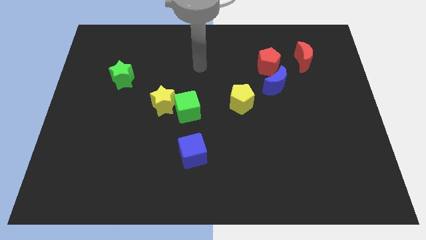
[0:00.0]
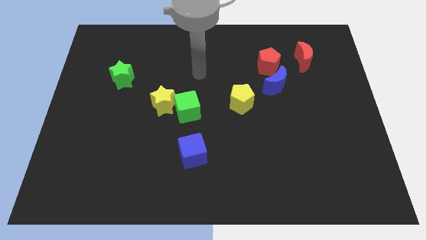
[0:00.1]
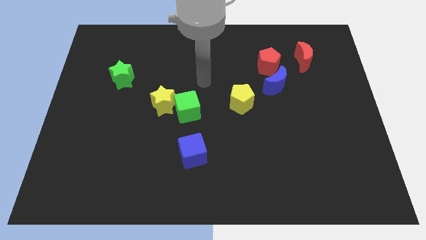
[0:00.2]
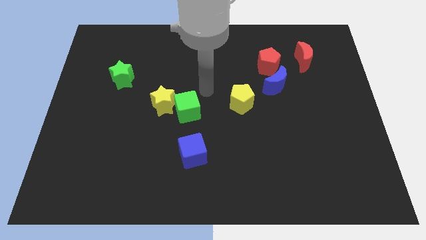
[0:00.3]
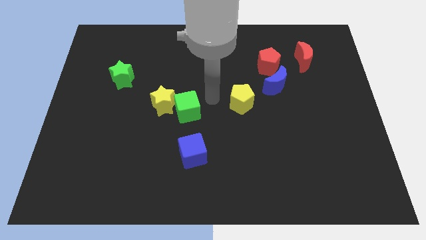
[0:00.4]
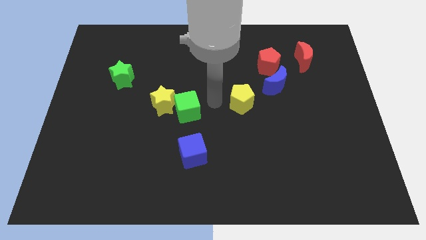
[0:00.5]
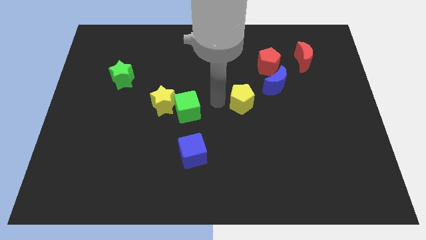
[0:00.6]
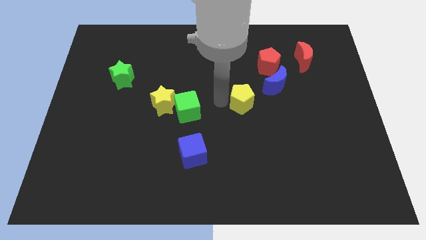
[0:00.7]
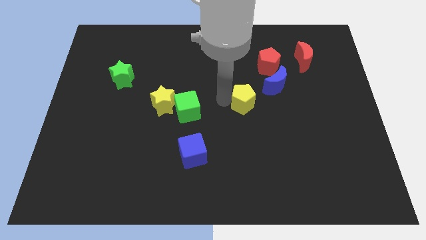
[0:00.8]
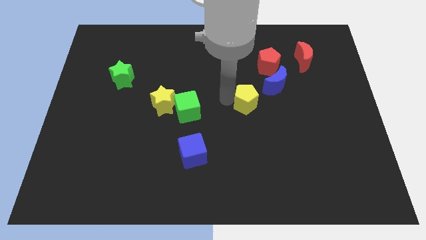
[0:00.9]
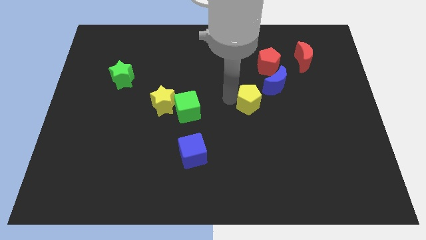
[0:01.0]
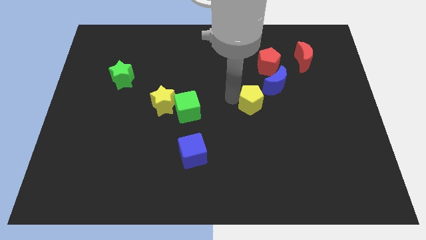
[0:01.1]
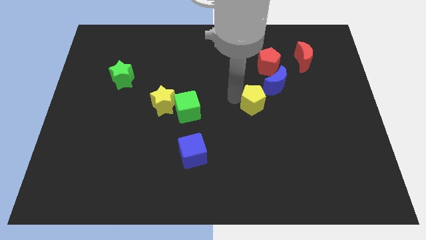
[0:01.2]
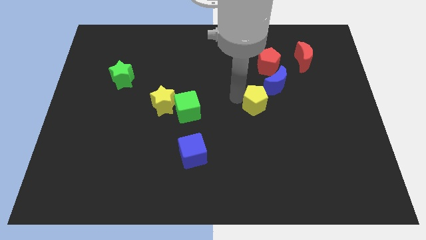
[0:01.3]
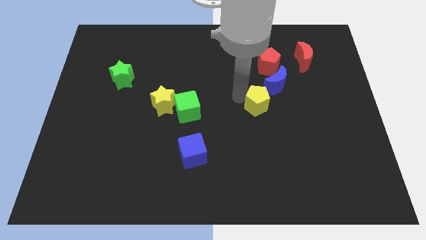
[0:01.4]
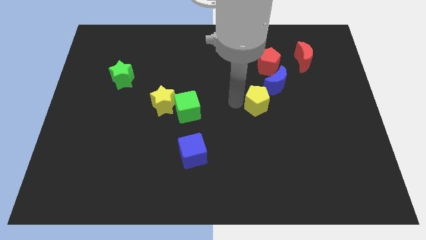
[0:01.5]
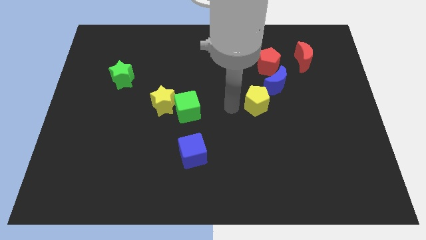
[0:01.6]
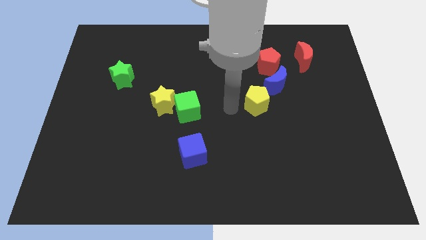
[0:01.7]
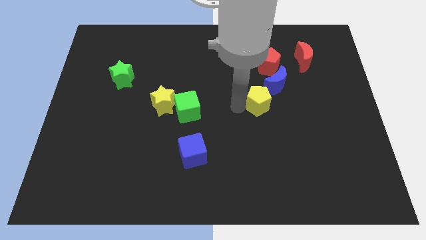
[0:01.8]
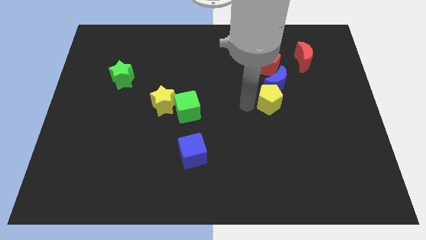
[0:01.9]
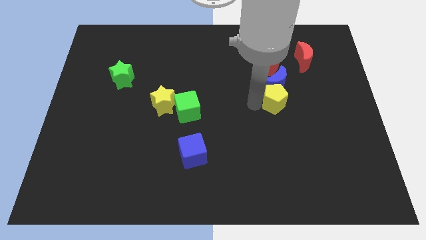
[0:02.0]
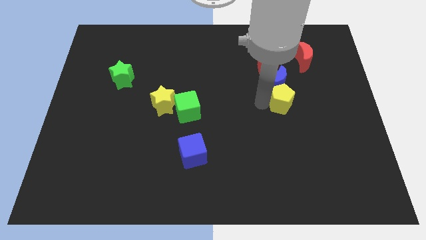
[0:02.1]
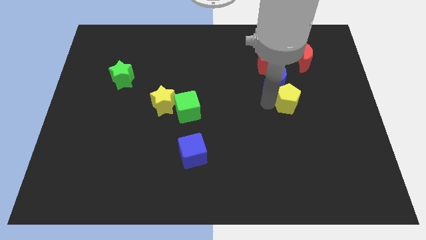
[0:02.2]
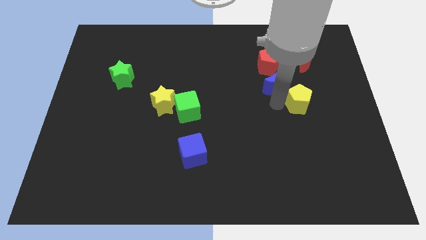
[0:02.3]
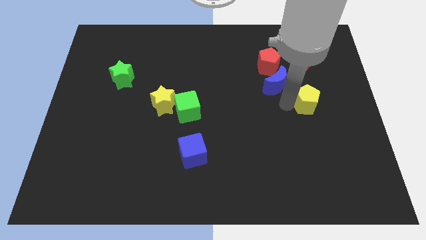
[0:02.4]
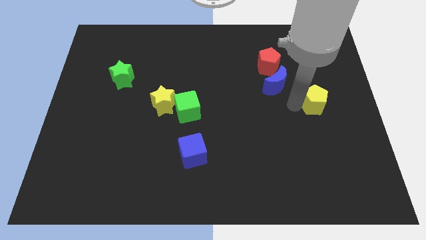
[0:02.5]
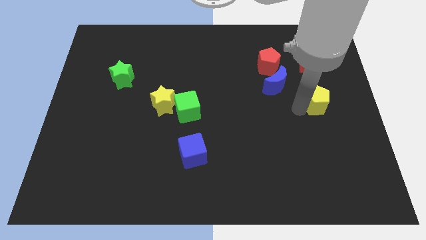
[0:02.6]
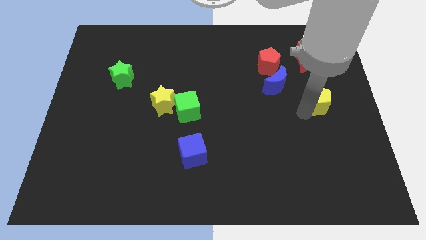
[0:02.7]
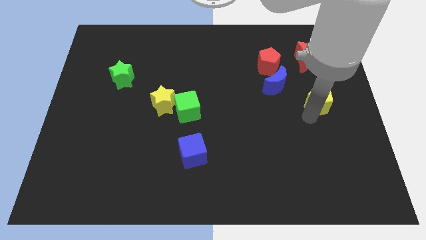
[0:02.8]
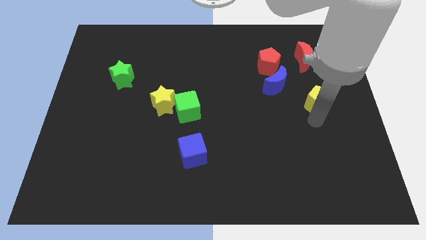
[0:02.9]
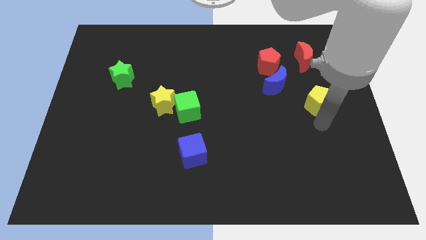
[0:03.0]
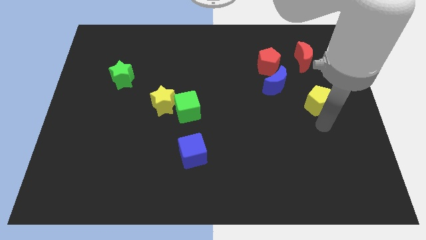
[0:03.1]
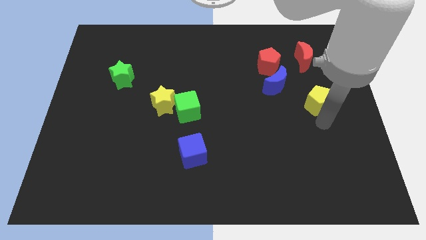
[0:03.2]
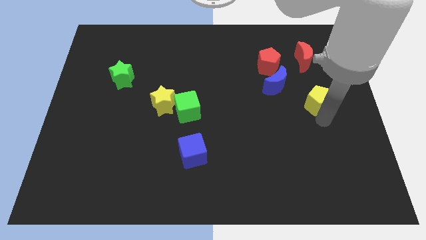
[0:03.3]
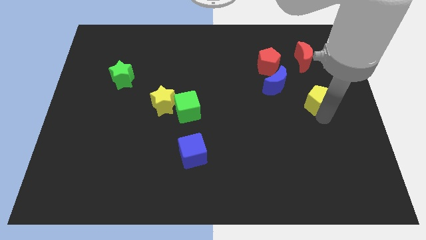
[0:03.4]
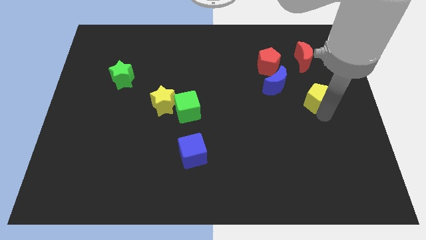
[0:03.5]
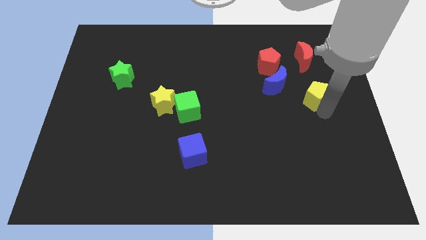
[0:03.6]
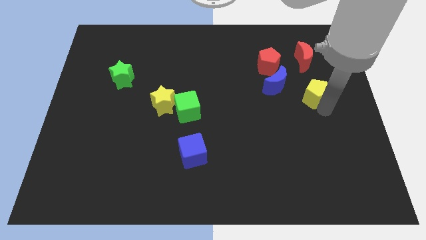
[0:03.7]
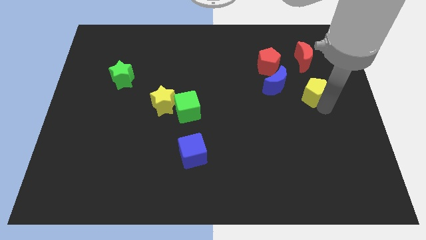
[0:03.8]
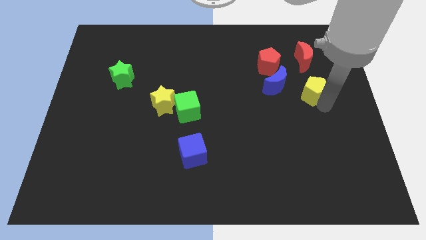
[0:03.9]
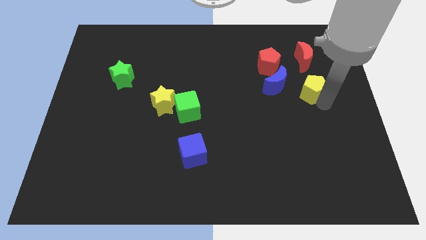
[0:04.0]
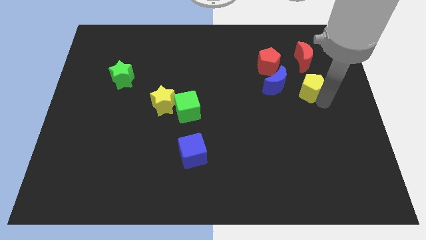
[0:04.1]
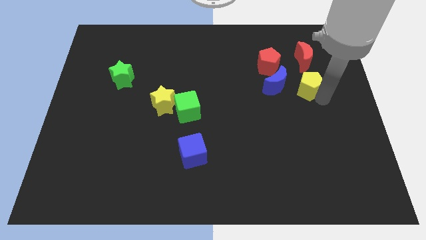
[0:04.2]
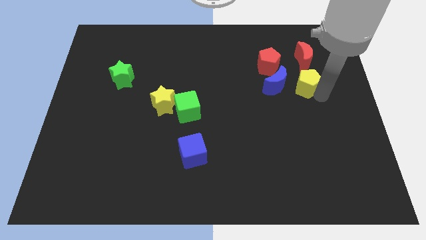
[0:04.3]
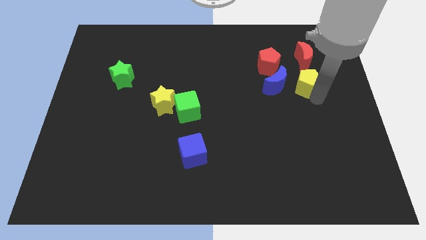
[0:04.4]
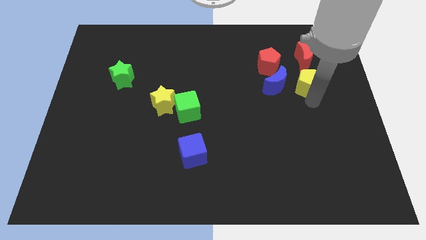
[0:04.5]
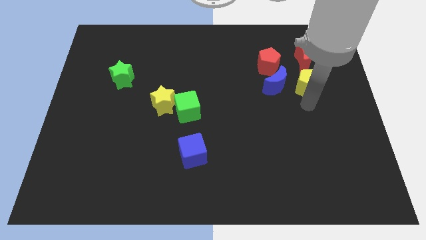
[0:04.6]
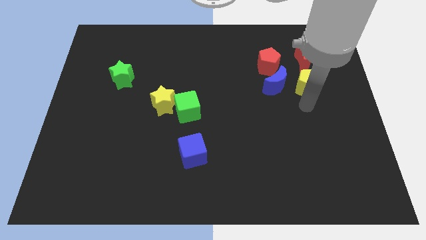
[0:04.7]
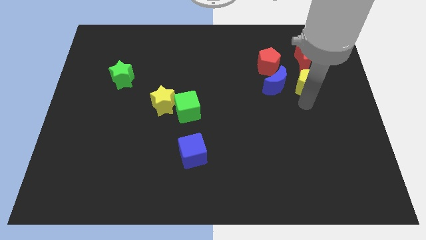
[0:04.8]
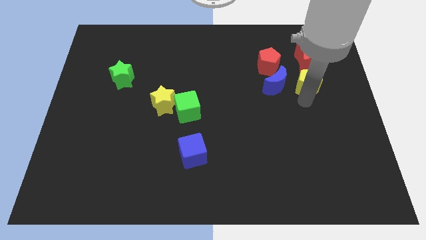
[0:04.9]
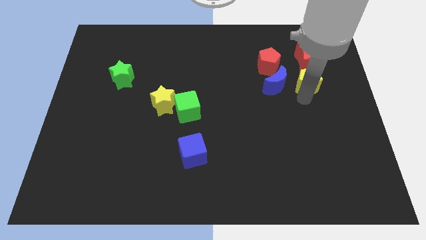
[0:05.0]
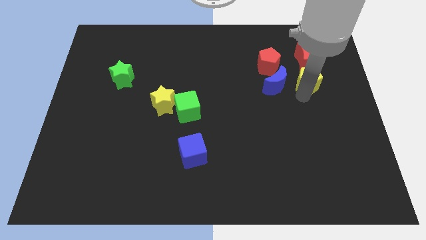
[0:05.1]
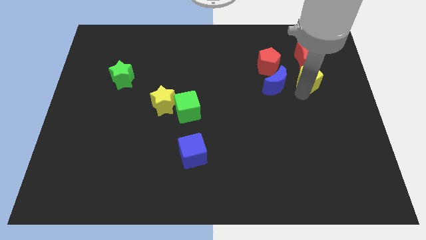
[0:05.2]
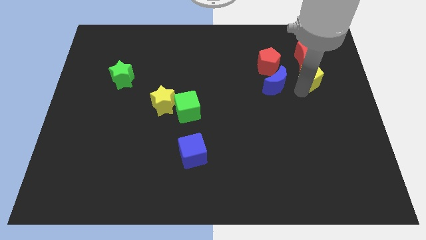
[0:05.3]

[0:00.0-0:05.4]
move the yellow pentagon to the right side of the red pentagon

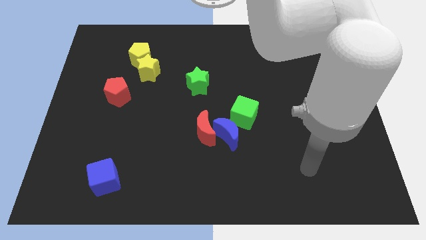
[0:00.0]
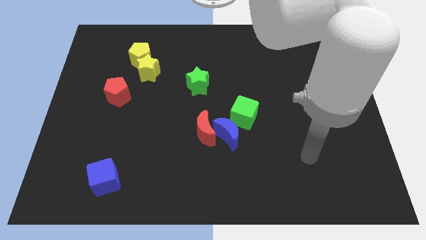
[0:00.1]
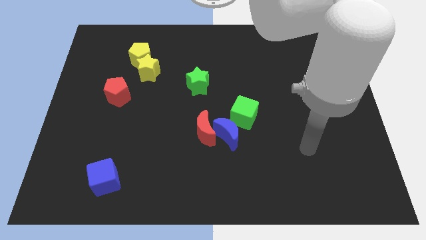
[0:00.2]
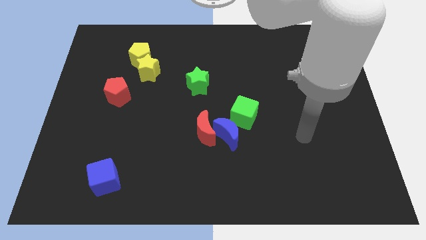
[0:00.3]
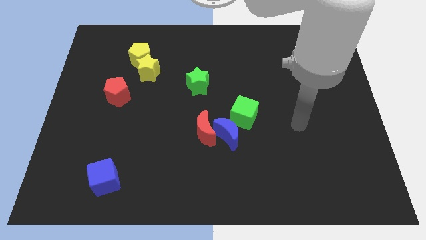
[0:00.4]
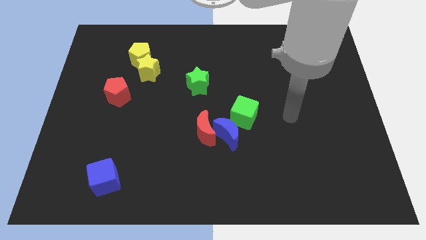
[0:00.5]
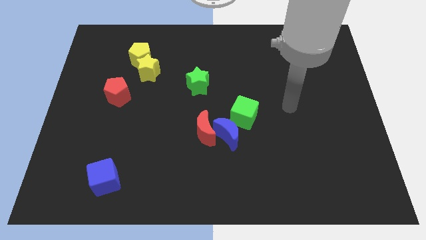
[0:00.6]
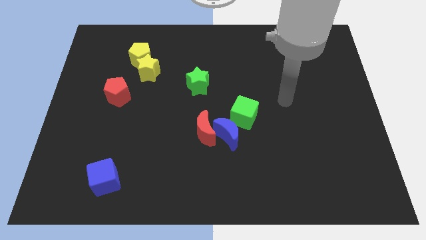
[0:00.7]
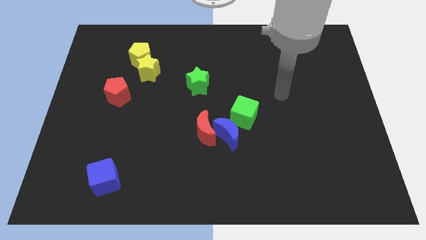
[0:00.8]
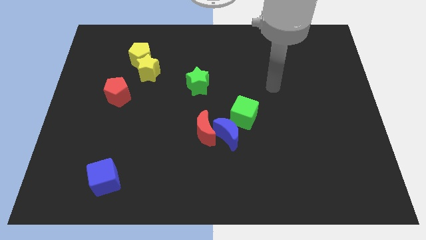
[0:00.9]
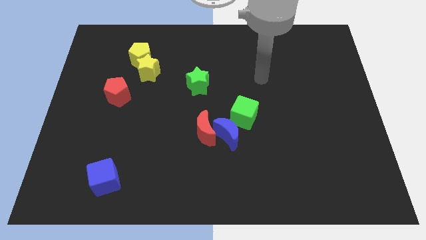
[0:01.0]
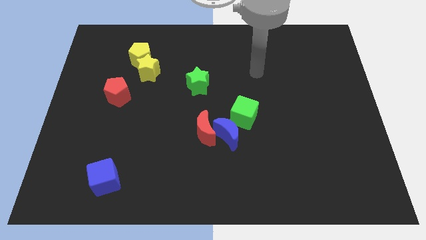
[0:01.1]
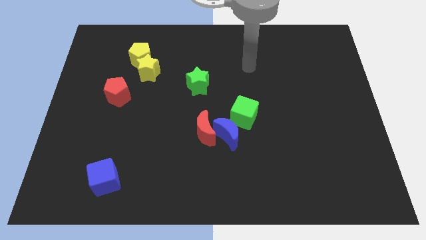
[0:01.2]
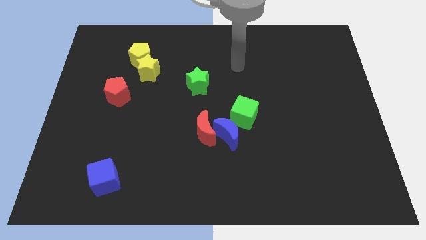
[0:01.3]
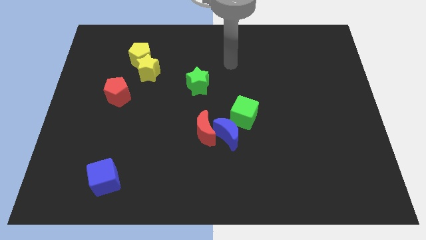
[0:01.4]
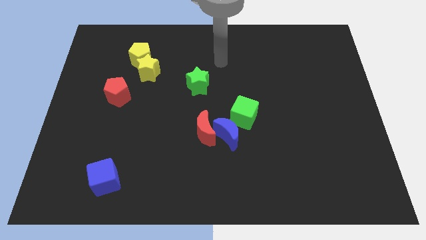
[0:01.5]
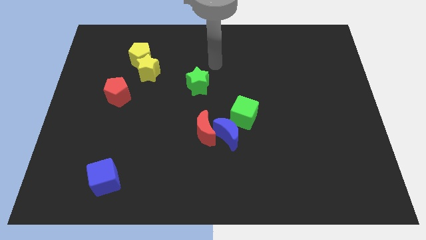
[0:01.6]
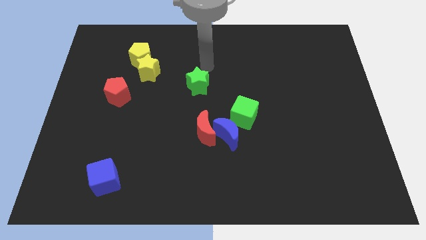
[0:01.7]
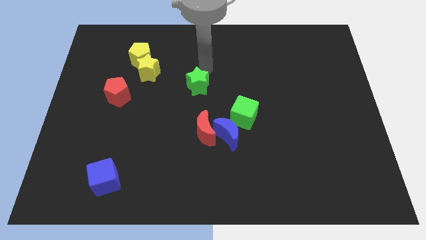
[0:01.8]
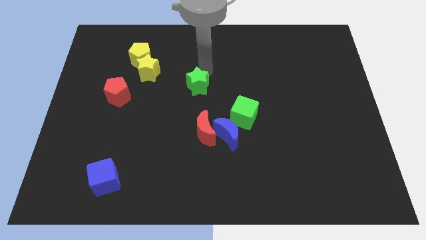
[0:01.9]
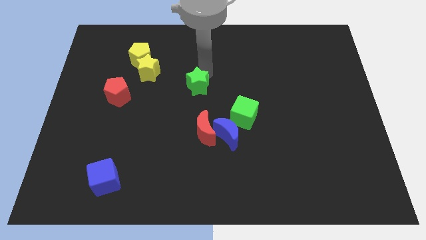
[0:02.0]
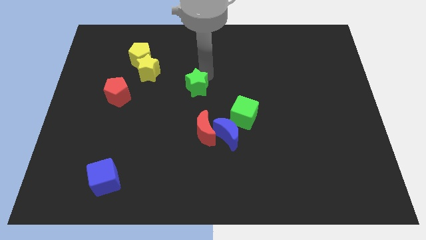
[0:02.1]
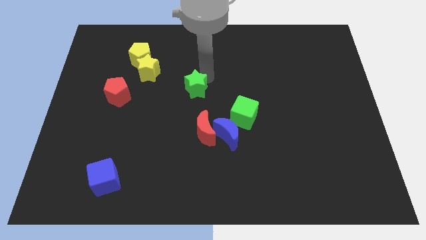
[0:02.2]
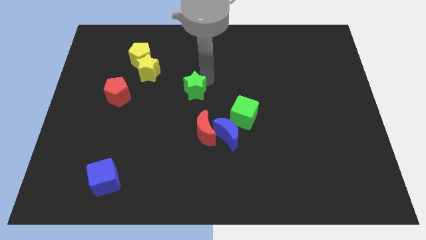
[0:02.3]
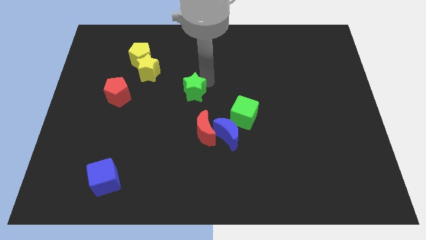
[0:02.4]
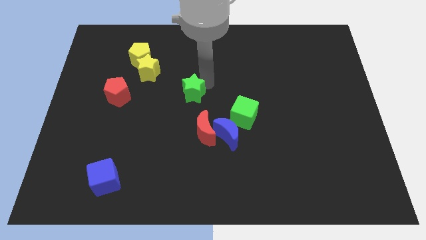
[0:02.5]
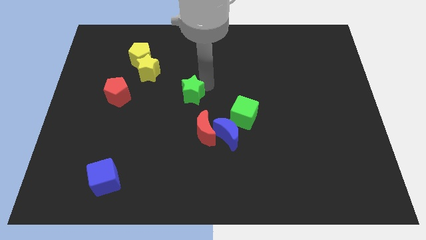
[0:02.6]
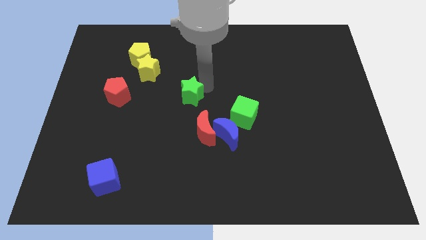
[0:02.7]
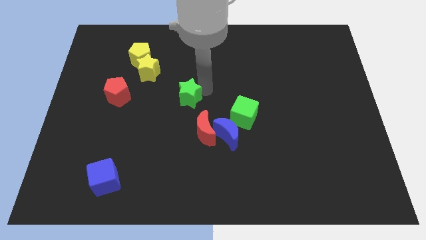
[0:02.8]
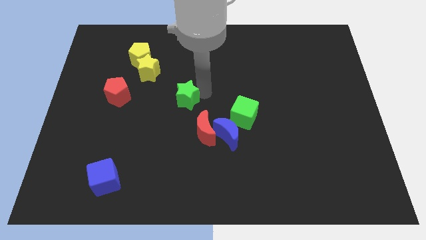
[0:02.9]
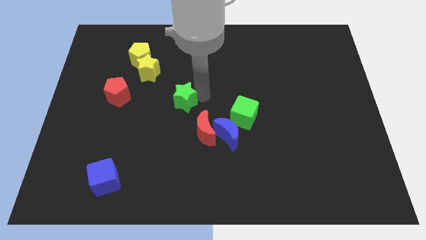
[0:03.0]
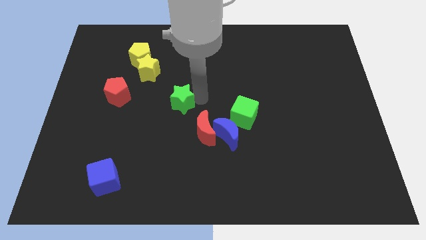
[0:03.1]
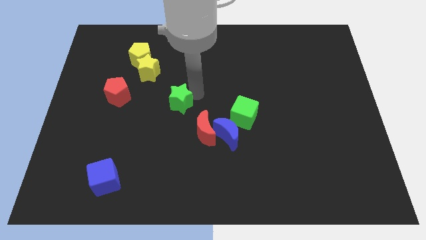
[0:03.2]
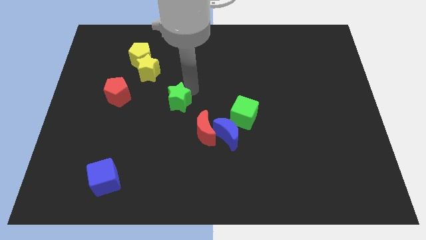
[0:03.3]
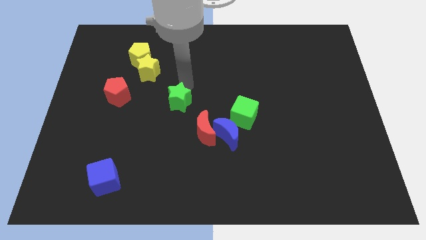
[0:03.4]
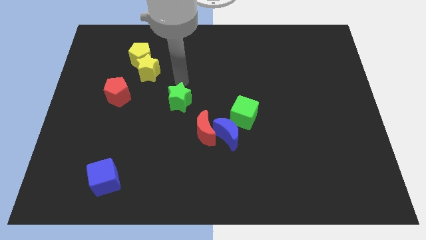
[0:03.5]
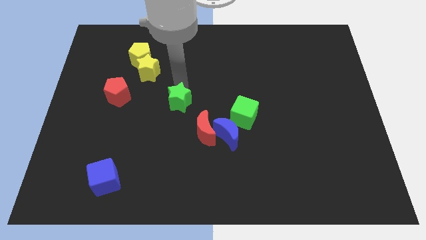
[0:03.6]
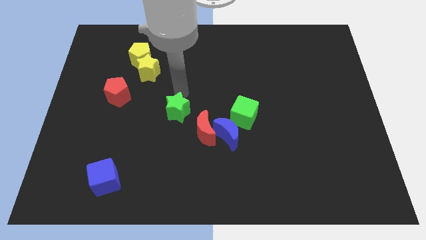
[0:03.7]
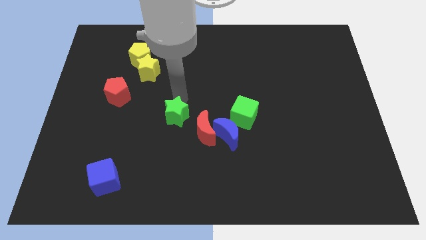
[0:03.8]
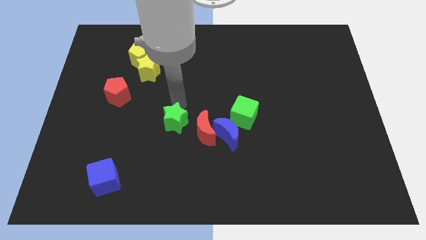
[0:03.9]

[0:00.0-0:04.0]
push the green star left of the blue moon
